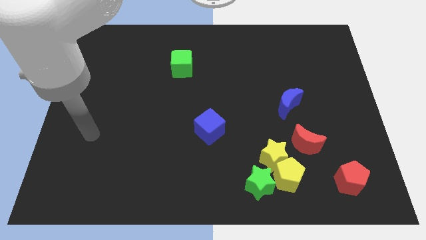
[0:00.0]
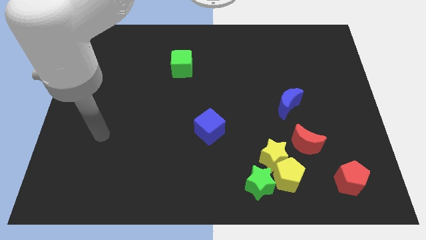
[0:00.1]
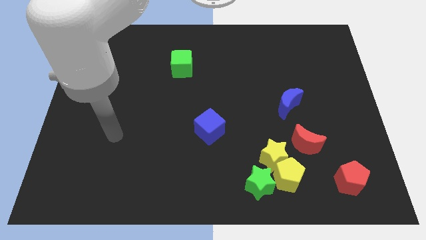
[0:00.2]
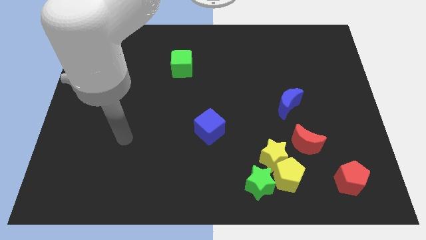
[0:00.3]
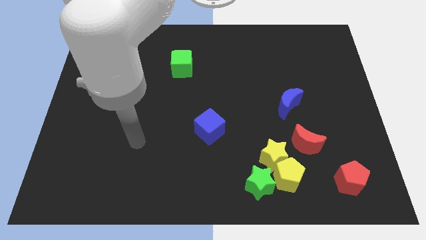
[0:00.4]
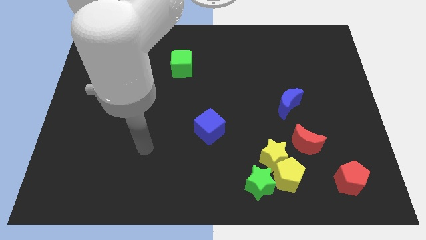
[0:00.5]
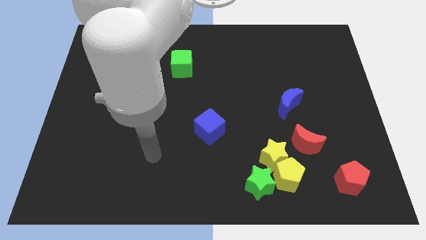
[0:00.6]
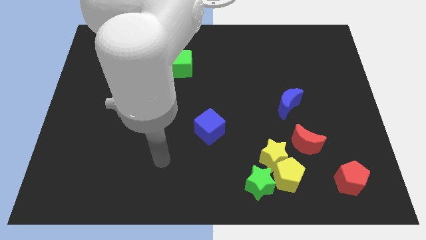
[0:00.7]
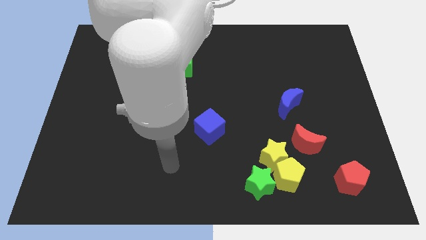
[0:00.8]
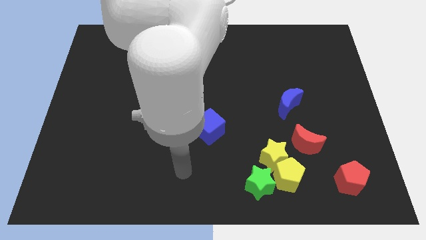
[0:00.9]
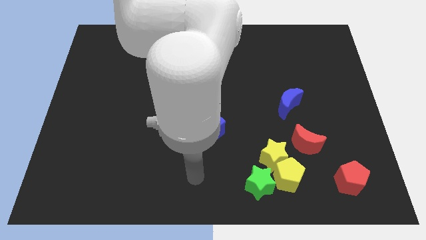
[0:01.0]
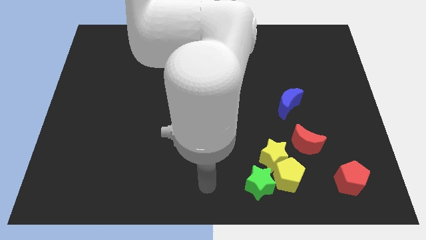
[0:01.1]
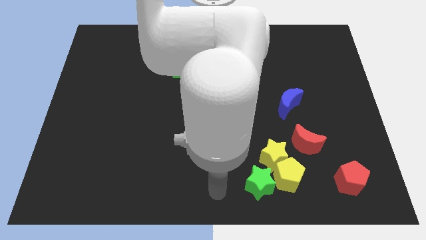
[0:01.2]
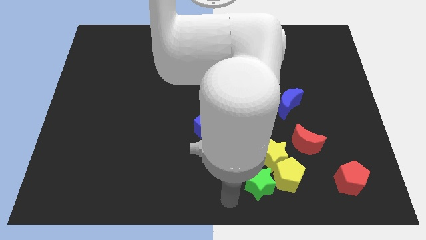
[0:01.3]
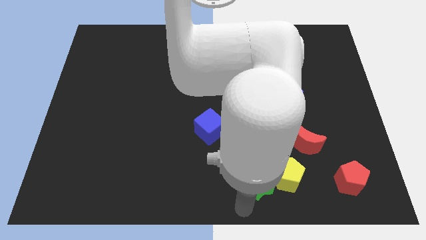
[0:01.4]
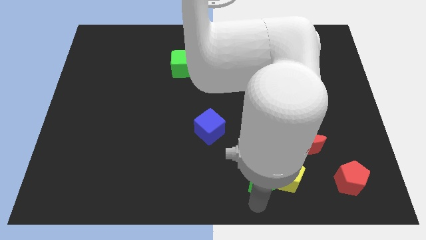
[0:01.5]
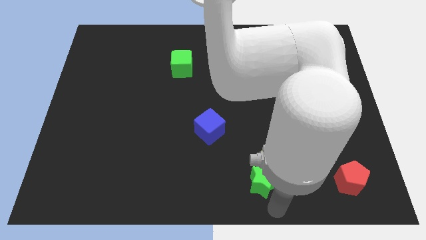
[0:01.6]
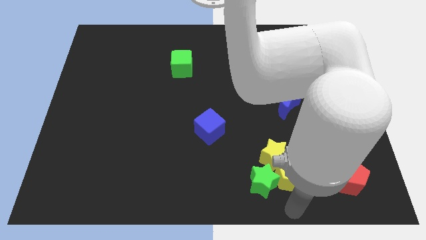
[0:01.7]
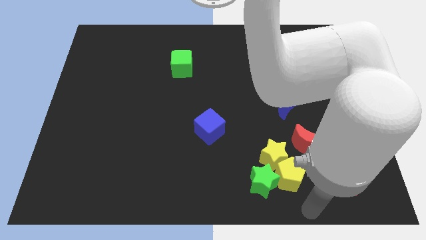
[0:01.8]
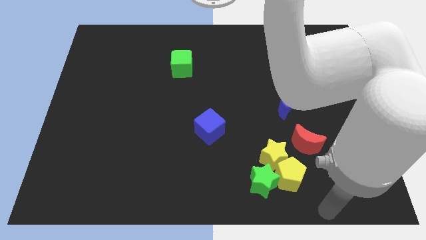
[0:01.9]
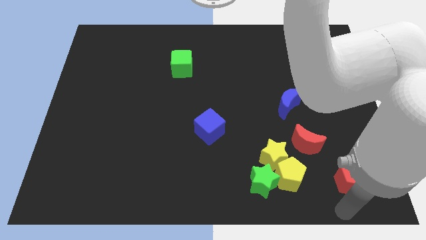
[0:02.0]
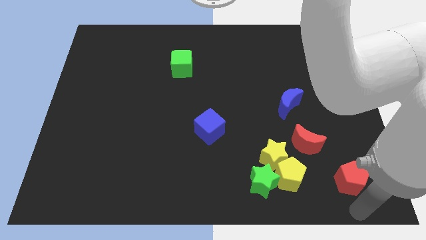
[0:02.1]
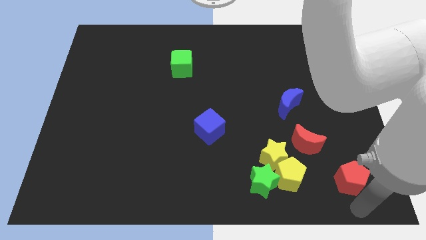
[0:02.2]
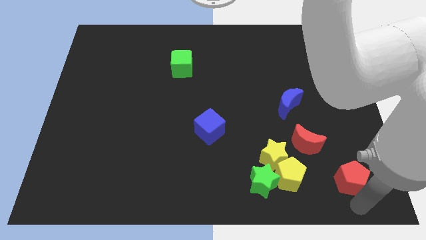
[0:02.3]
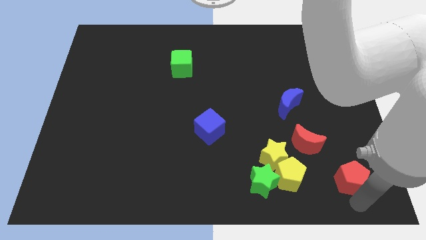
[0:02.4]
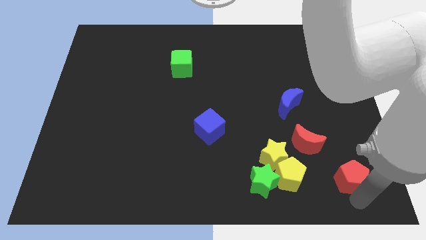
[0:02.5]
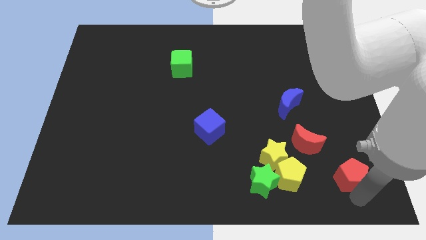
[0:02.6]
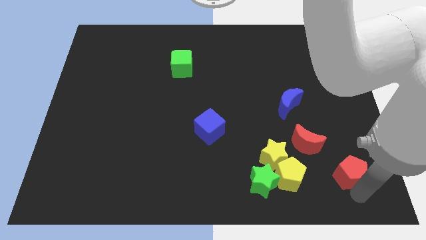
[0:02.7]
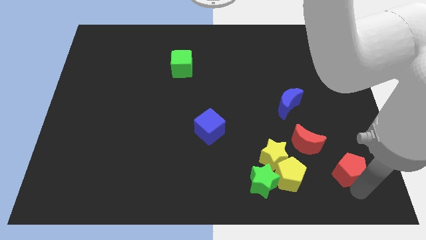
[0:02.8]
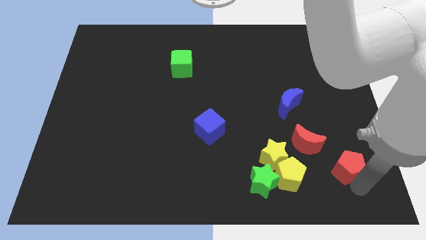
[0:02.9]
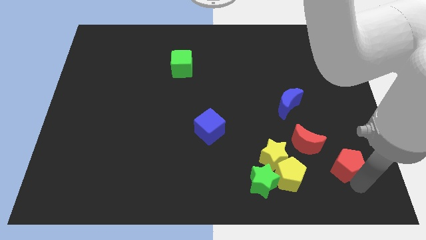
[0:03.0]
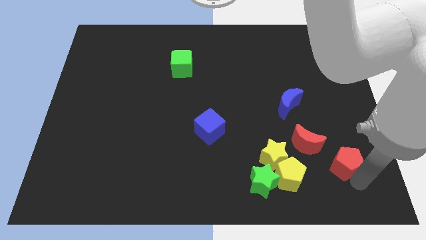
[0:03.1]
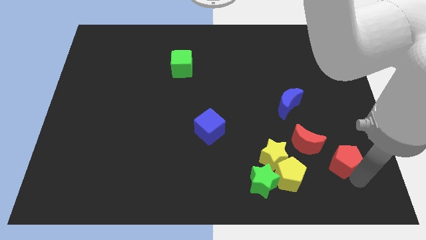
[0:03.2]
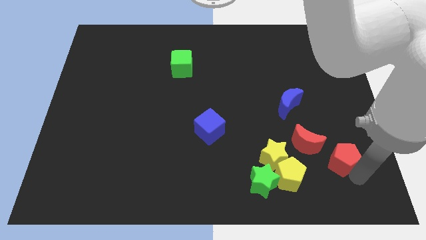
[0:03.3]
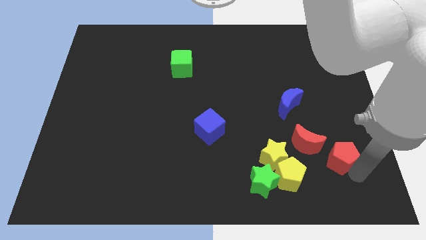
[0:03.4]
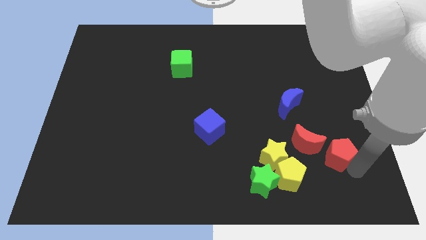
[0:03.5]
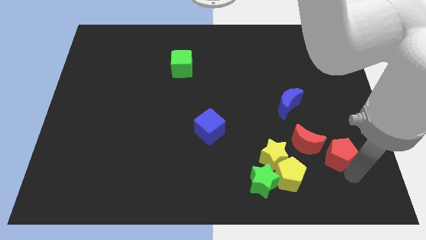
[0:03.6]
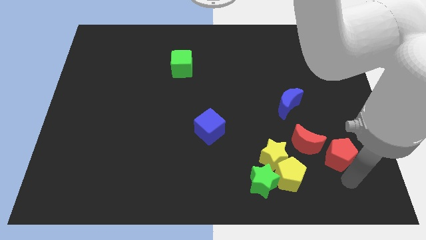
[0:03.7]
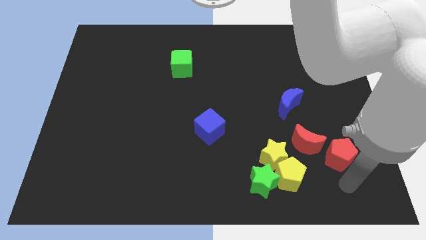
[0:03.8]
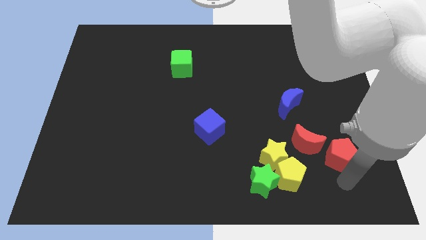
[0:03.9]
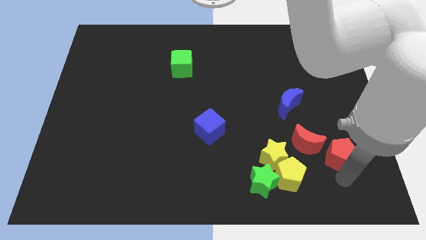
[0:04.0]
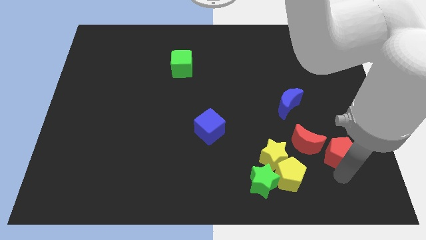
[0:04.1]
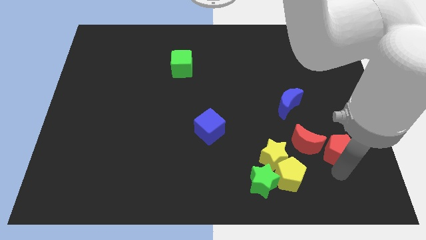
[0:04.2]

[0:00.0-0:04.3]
slightly move the red pentagon up

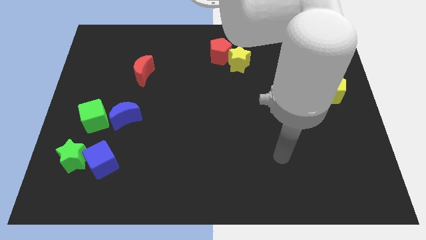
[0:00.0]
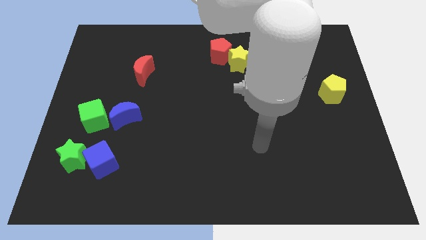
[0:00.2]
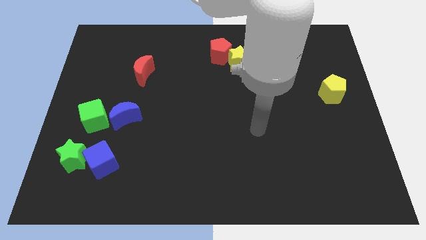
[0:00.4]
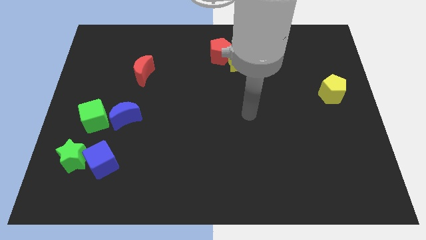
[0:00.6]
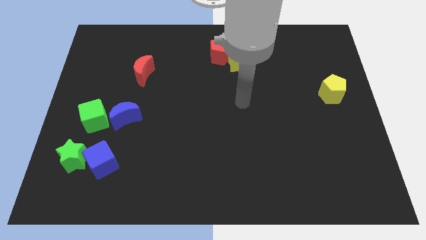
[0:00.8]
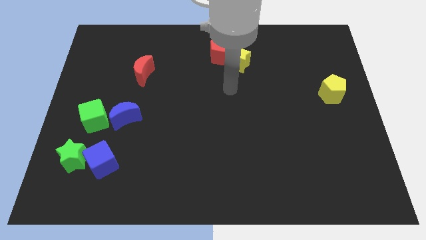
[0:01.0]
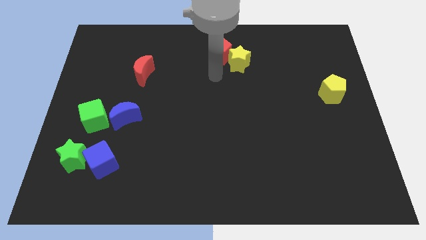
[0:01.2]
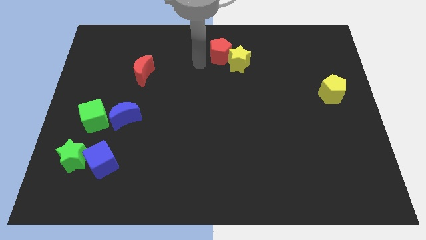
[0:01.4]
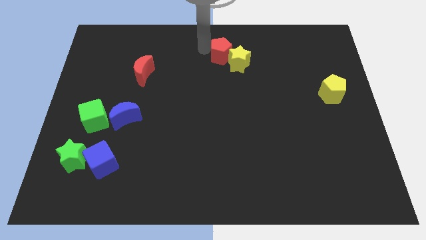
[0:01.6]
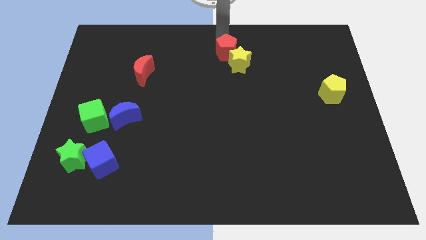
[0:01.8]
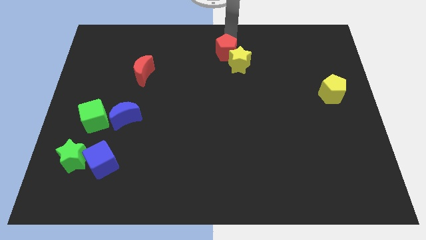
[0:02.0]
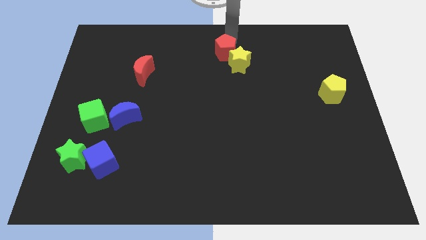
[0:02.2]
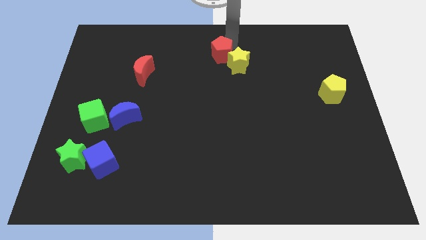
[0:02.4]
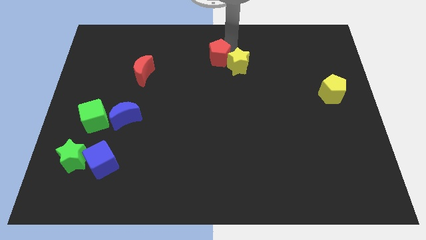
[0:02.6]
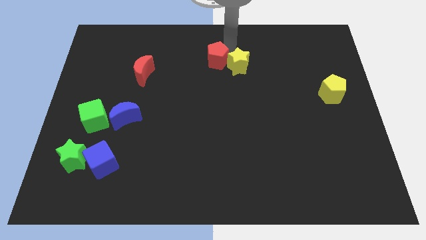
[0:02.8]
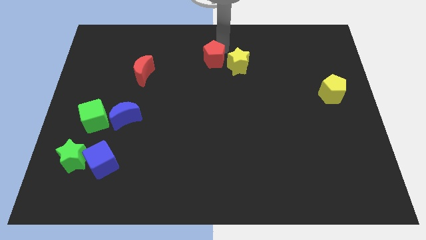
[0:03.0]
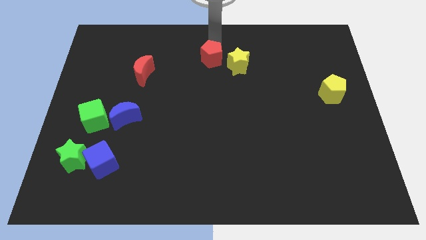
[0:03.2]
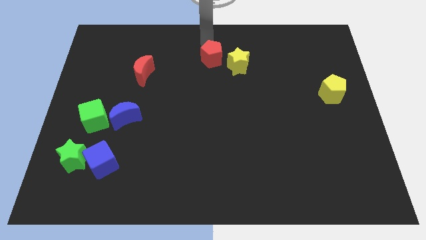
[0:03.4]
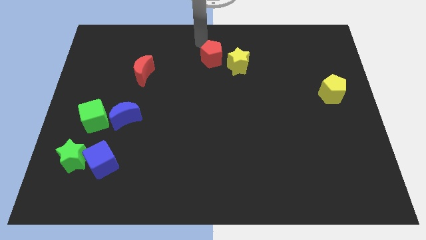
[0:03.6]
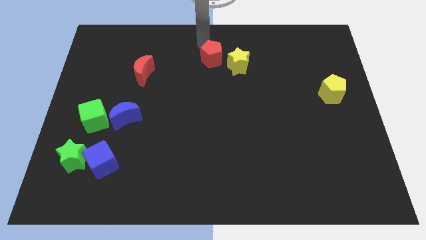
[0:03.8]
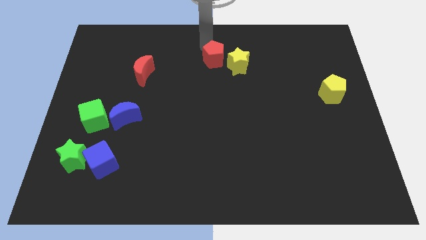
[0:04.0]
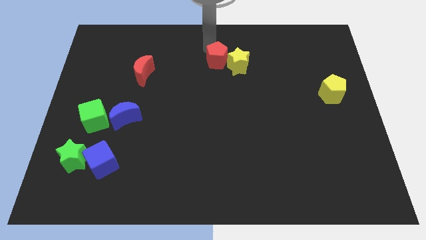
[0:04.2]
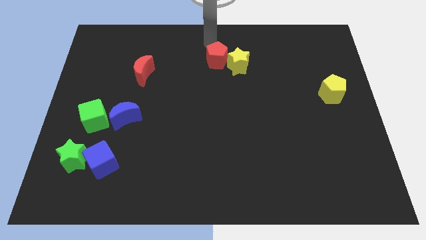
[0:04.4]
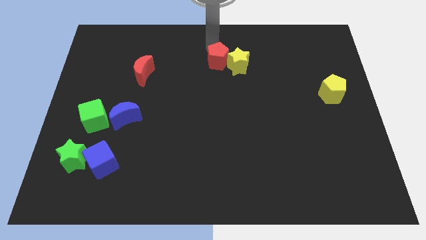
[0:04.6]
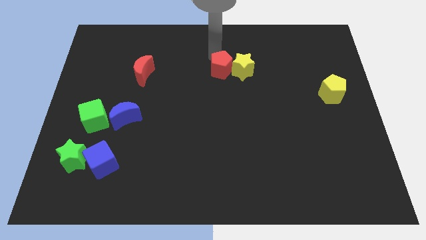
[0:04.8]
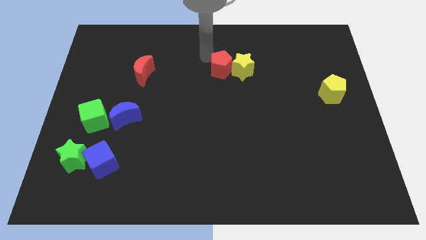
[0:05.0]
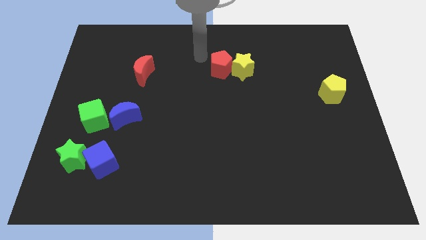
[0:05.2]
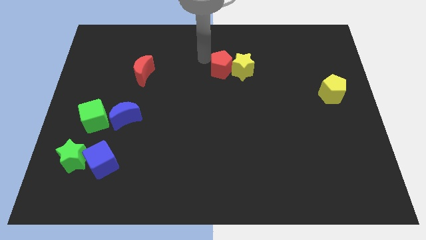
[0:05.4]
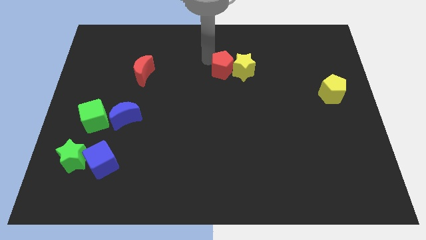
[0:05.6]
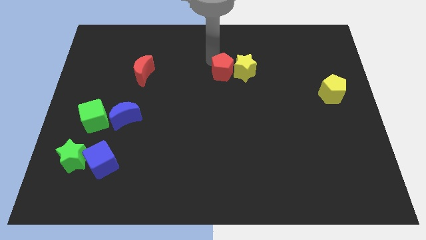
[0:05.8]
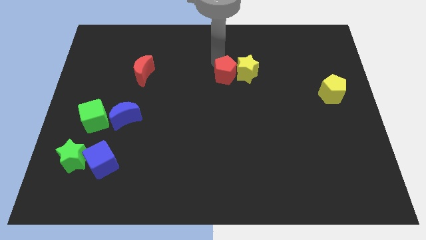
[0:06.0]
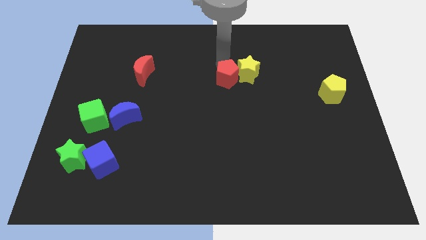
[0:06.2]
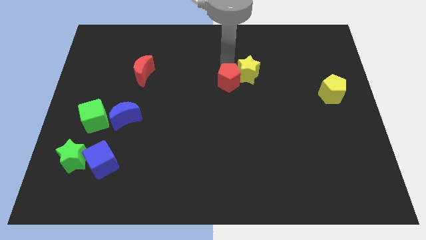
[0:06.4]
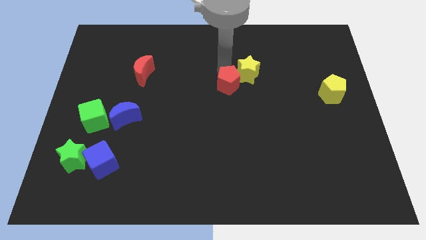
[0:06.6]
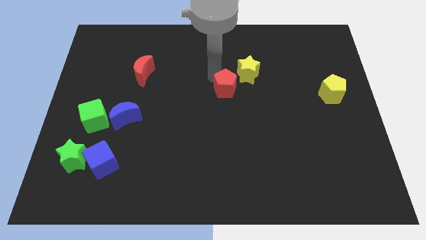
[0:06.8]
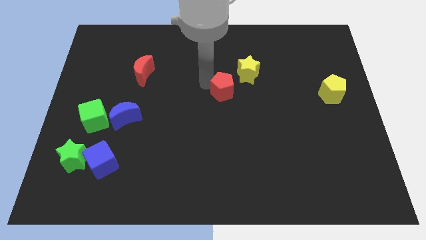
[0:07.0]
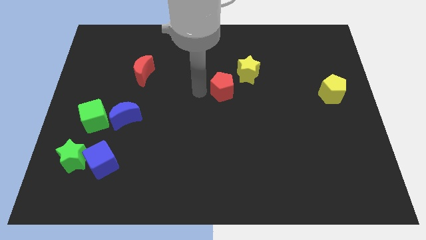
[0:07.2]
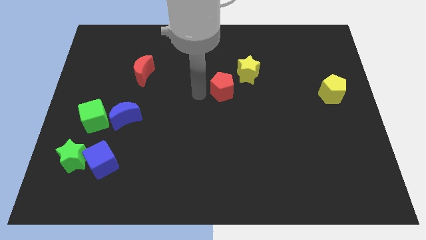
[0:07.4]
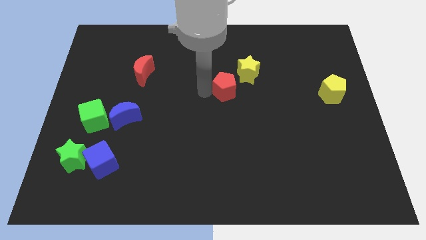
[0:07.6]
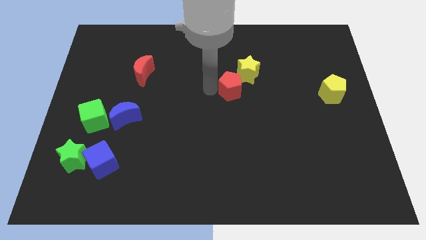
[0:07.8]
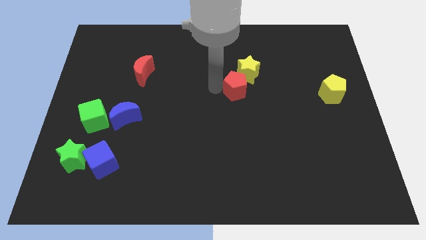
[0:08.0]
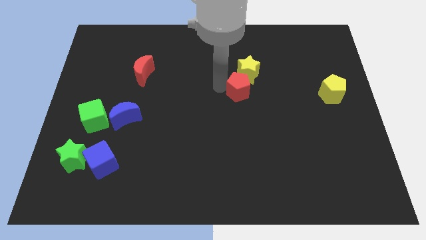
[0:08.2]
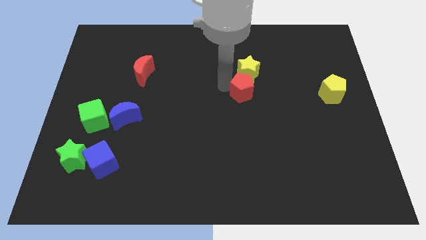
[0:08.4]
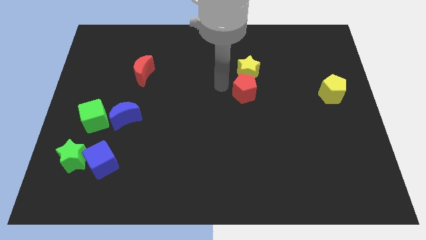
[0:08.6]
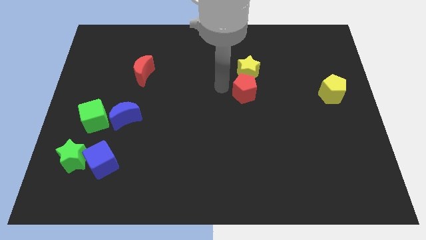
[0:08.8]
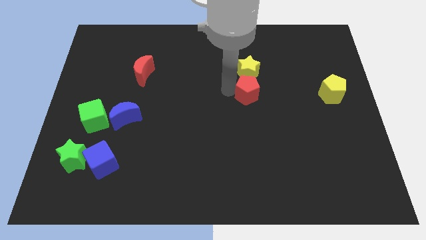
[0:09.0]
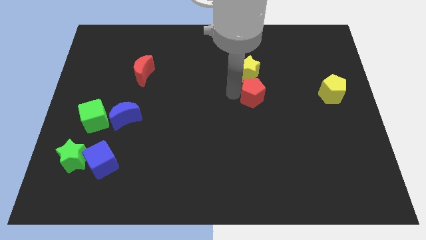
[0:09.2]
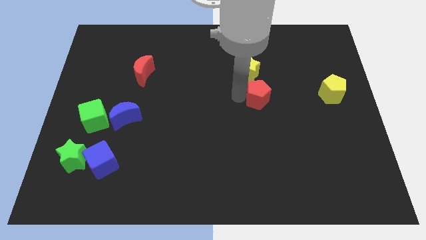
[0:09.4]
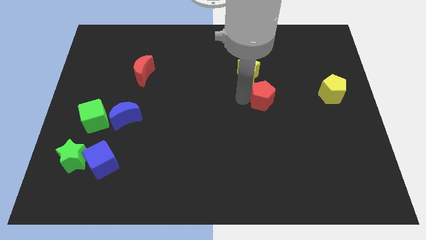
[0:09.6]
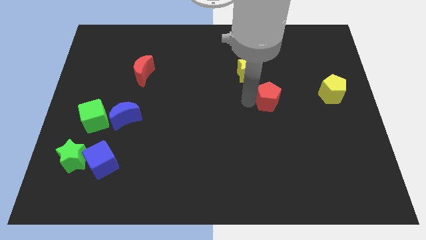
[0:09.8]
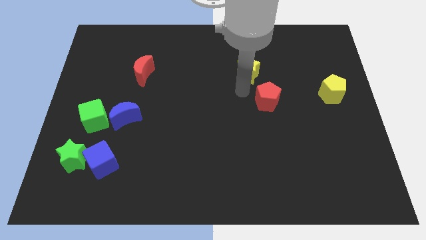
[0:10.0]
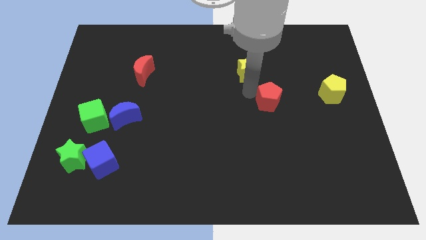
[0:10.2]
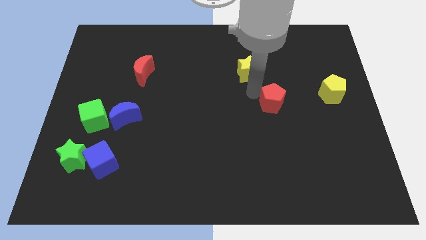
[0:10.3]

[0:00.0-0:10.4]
slide the red pentagon downwards and right
